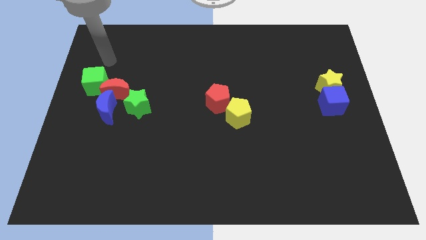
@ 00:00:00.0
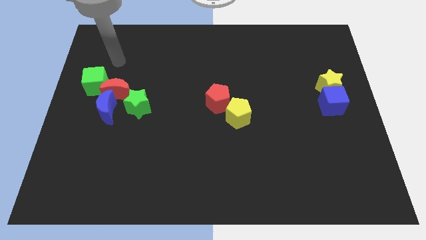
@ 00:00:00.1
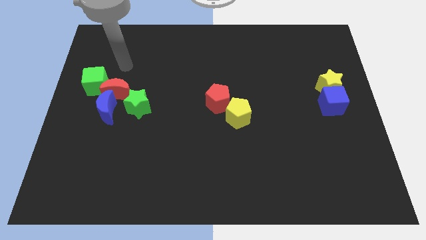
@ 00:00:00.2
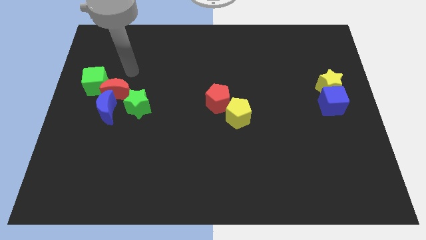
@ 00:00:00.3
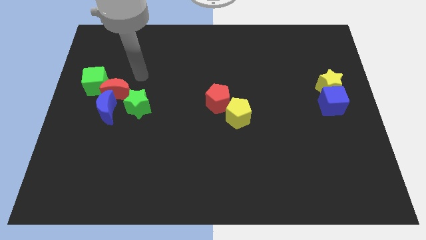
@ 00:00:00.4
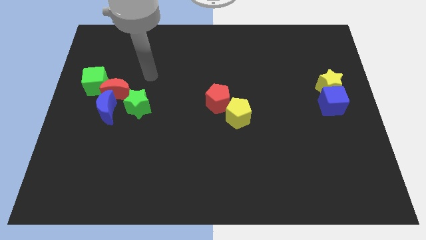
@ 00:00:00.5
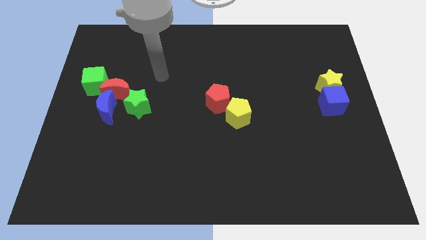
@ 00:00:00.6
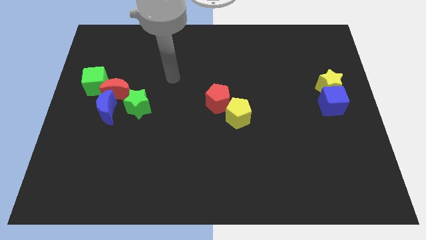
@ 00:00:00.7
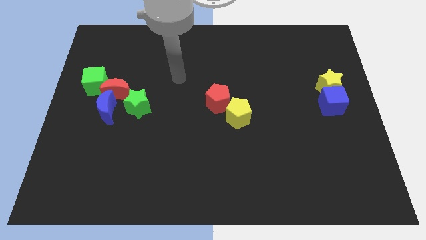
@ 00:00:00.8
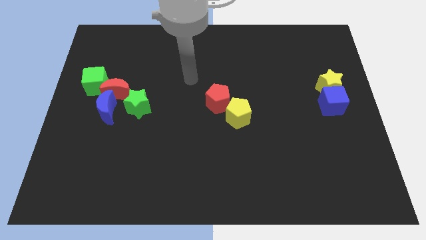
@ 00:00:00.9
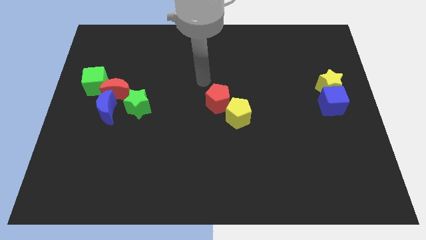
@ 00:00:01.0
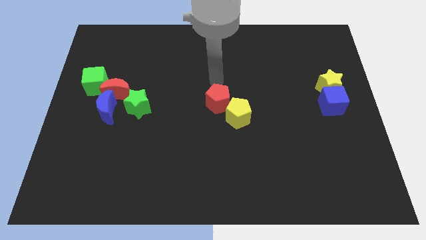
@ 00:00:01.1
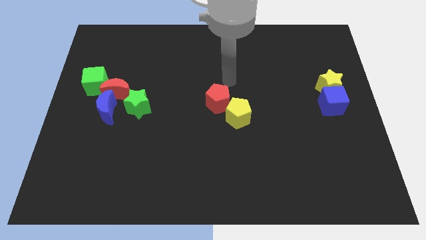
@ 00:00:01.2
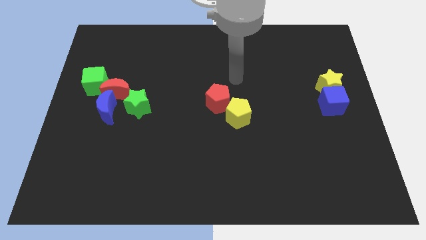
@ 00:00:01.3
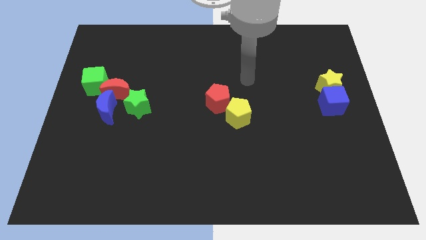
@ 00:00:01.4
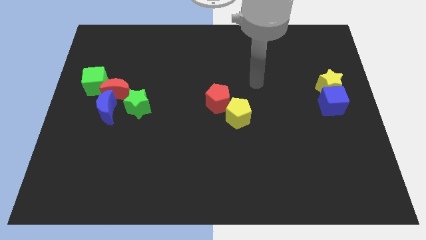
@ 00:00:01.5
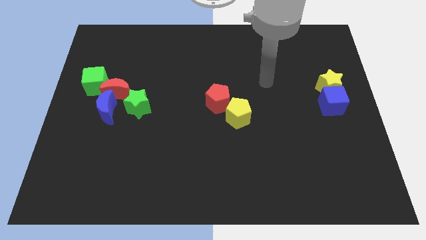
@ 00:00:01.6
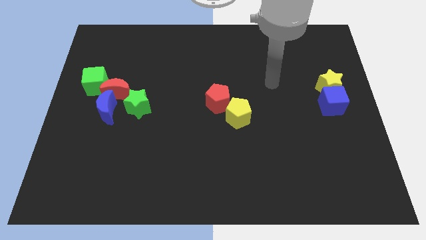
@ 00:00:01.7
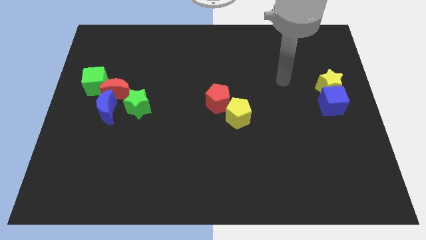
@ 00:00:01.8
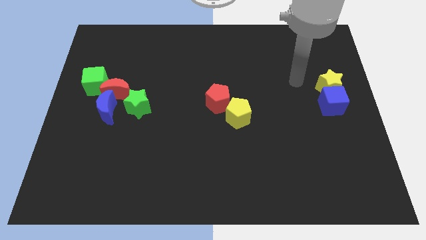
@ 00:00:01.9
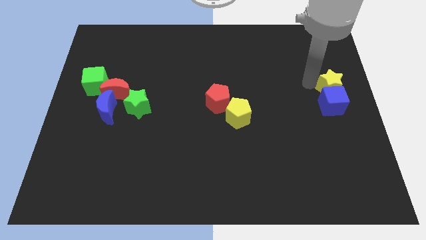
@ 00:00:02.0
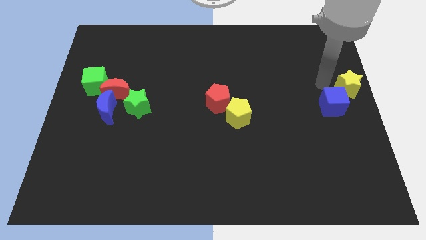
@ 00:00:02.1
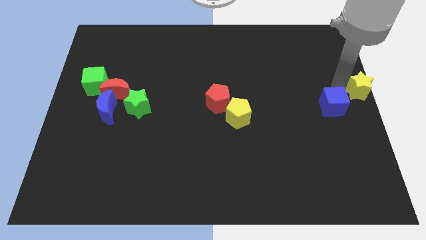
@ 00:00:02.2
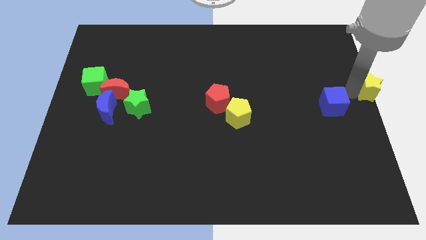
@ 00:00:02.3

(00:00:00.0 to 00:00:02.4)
pull the blue cube apart from the yellow star

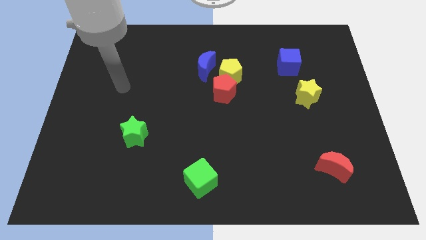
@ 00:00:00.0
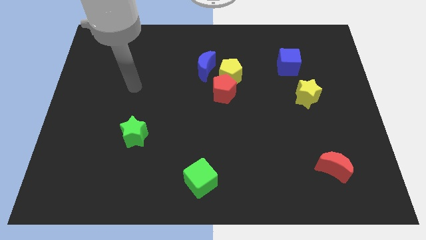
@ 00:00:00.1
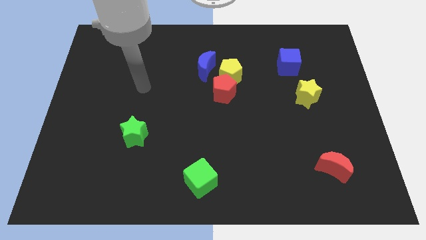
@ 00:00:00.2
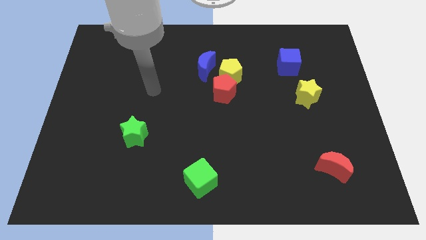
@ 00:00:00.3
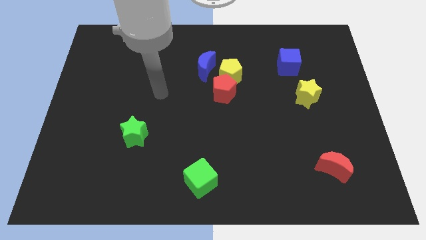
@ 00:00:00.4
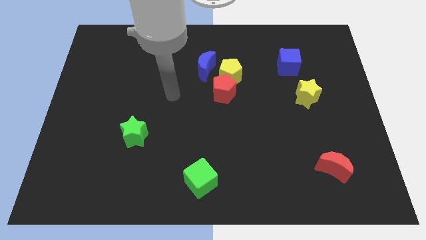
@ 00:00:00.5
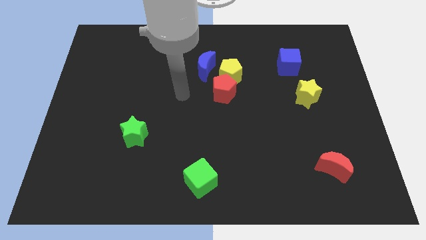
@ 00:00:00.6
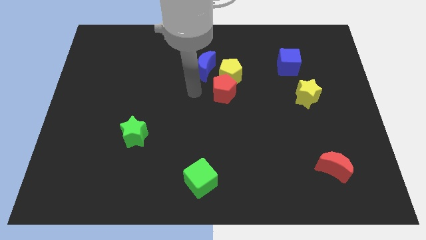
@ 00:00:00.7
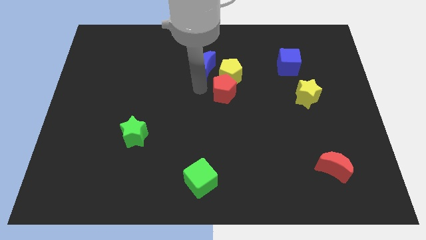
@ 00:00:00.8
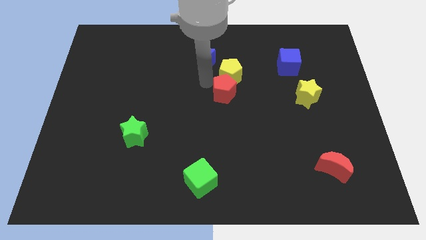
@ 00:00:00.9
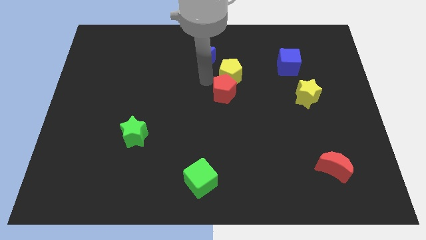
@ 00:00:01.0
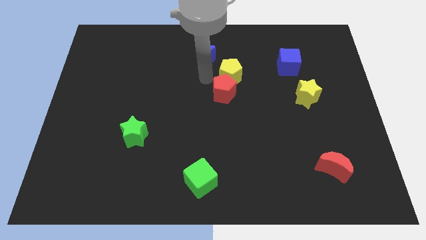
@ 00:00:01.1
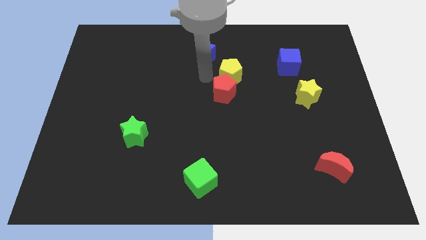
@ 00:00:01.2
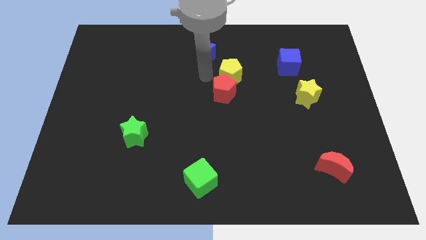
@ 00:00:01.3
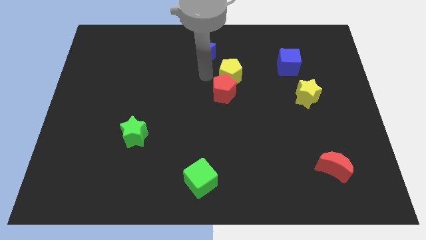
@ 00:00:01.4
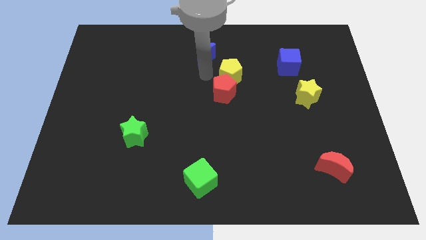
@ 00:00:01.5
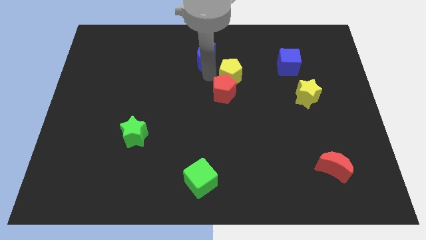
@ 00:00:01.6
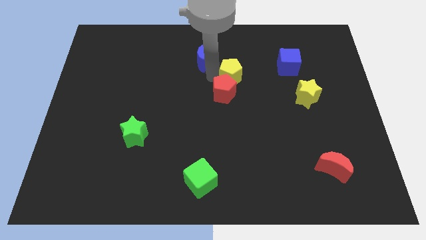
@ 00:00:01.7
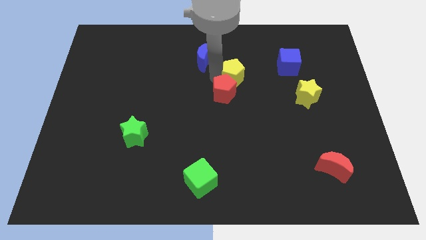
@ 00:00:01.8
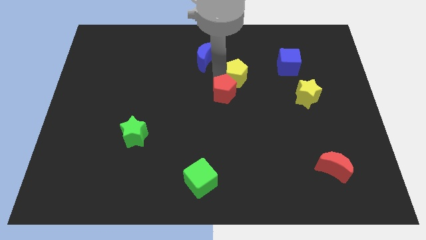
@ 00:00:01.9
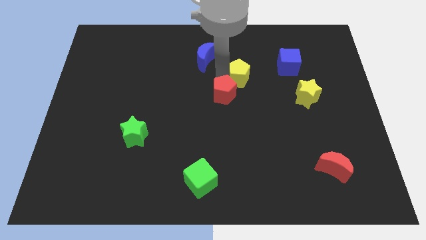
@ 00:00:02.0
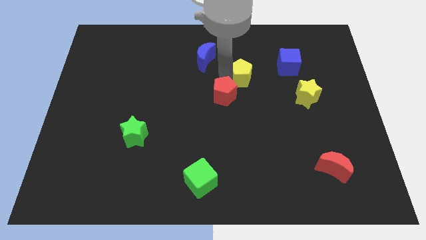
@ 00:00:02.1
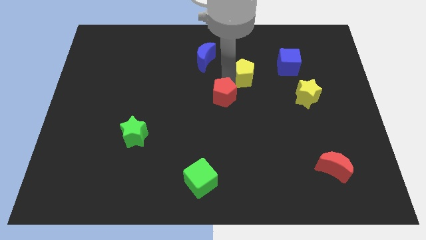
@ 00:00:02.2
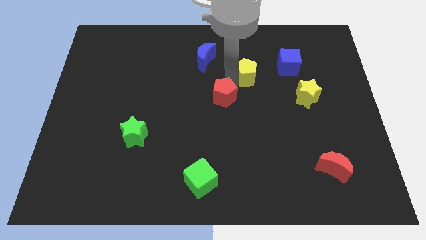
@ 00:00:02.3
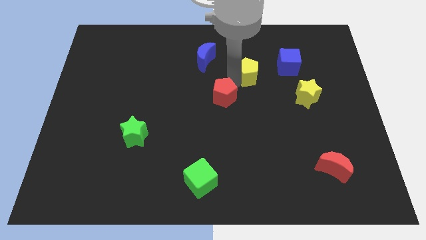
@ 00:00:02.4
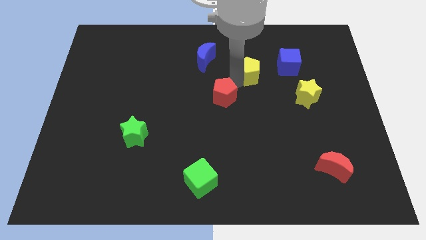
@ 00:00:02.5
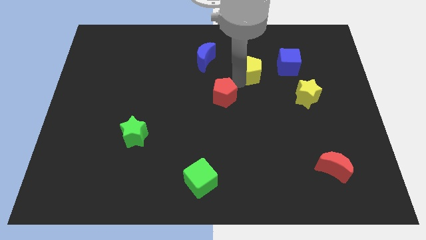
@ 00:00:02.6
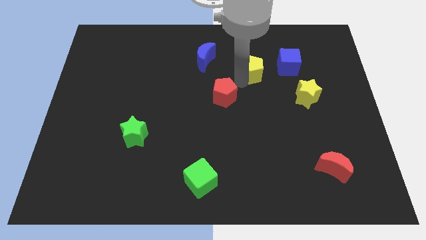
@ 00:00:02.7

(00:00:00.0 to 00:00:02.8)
move the yellow pentagon away from the red pentagon and blue moon

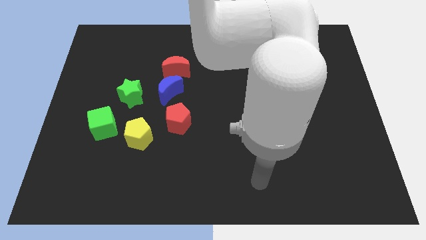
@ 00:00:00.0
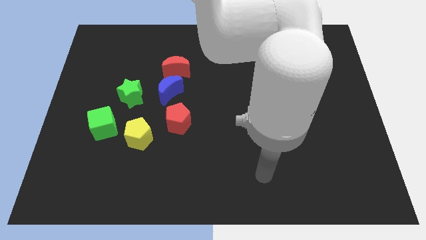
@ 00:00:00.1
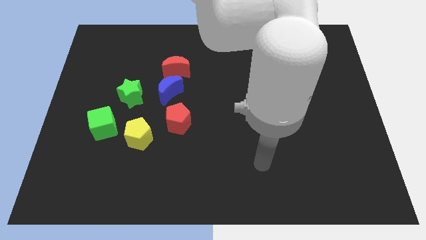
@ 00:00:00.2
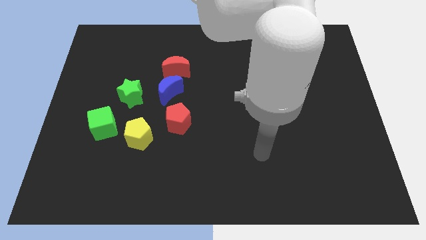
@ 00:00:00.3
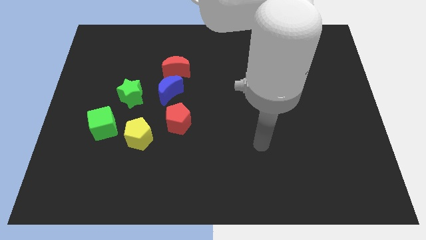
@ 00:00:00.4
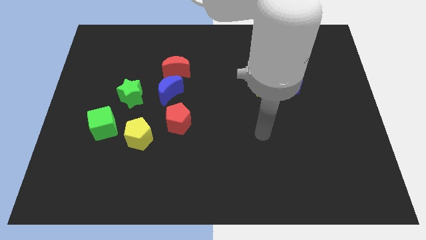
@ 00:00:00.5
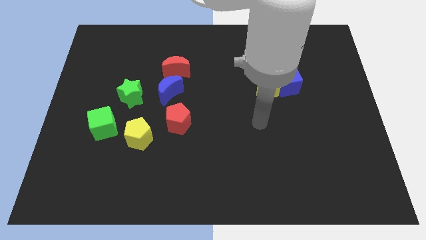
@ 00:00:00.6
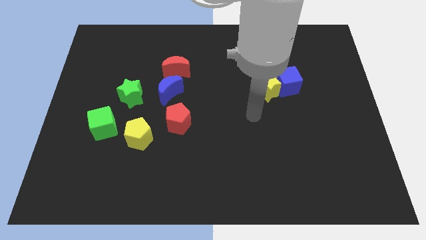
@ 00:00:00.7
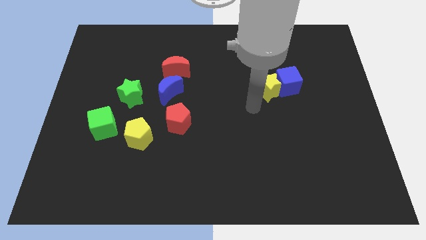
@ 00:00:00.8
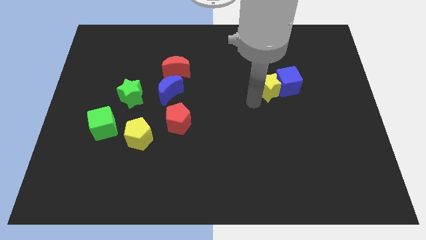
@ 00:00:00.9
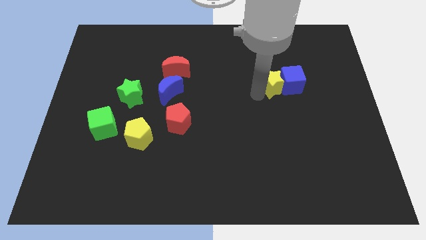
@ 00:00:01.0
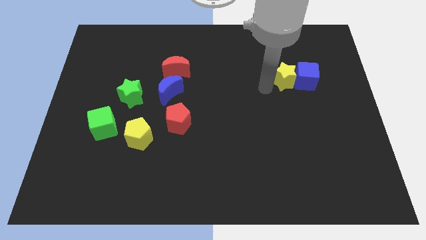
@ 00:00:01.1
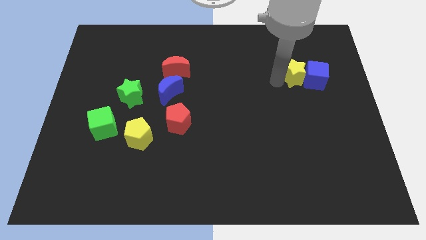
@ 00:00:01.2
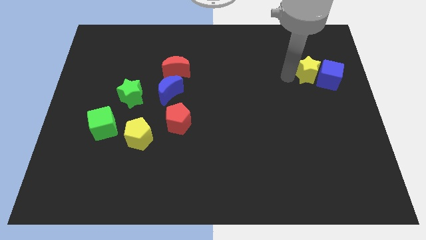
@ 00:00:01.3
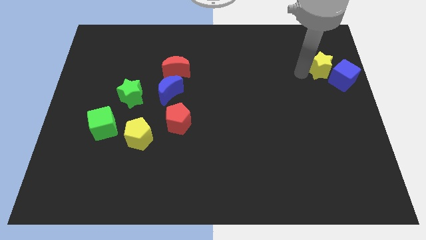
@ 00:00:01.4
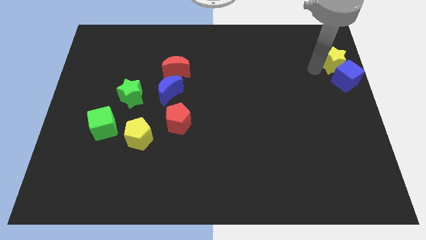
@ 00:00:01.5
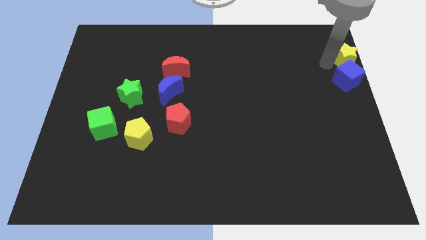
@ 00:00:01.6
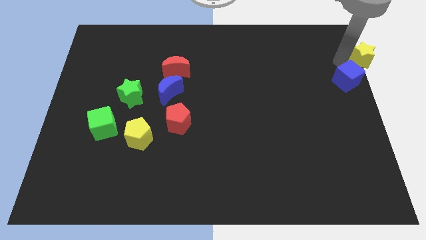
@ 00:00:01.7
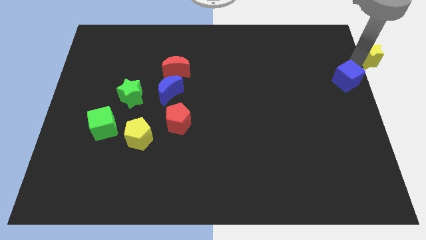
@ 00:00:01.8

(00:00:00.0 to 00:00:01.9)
move the blue cube away from the yellow star

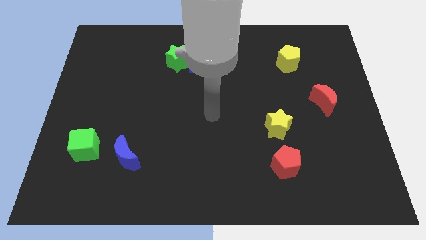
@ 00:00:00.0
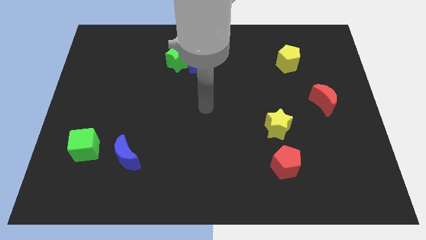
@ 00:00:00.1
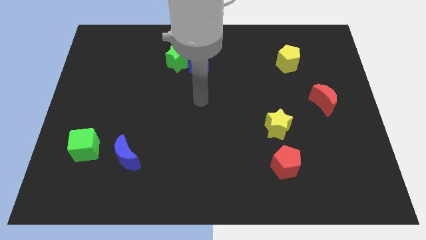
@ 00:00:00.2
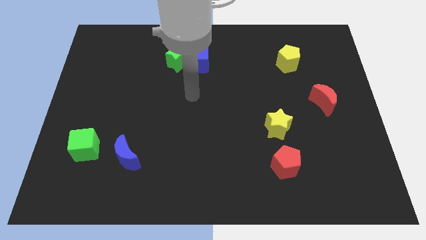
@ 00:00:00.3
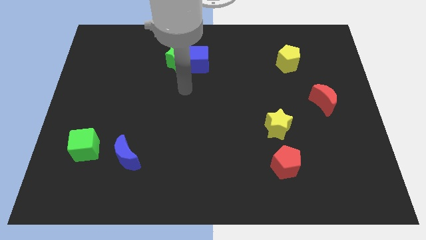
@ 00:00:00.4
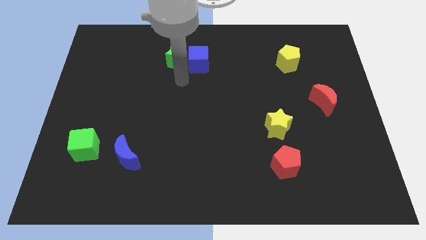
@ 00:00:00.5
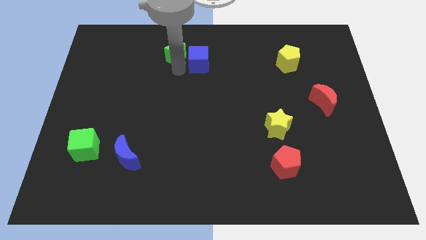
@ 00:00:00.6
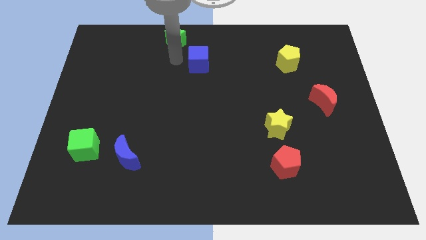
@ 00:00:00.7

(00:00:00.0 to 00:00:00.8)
move the blue cube away from the green star

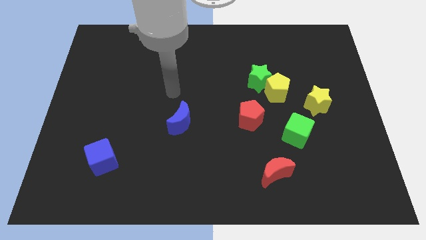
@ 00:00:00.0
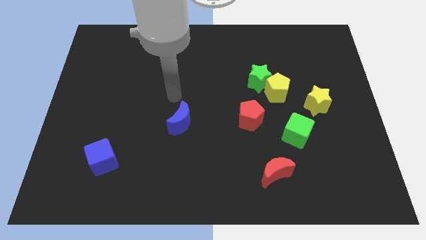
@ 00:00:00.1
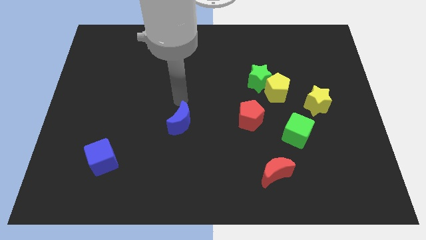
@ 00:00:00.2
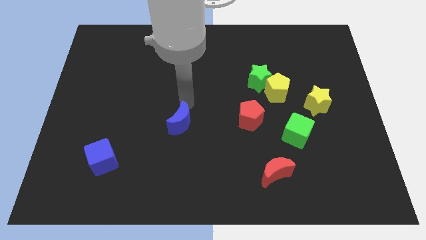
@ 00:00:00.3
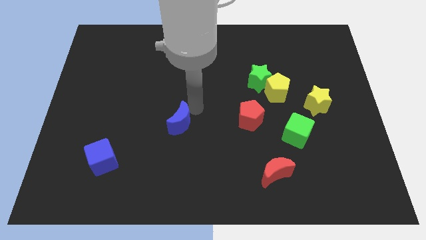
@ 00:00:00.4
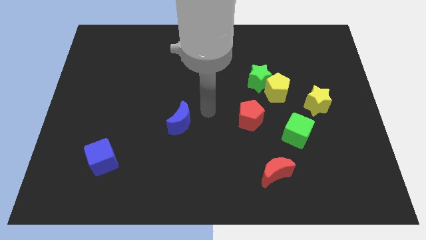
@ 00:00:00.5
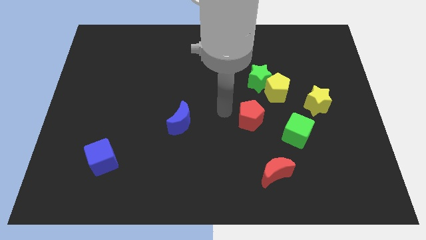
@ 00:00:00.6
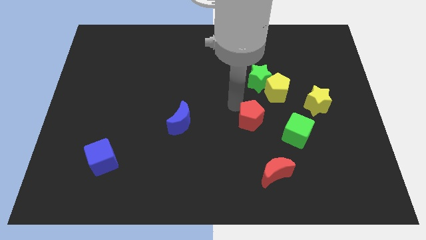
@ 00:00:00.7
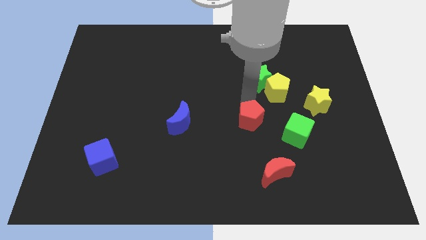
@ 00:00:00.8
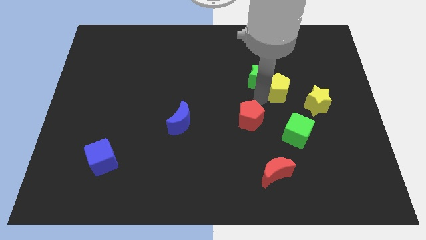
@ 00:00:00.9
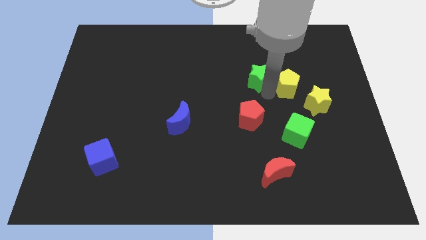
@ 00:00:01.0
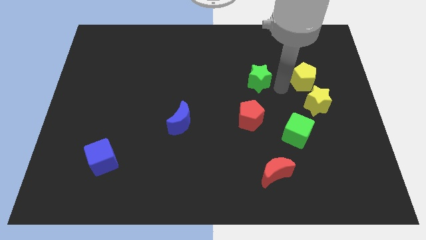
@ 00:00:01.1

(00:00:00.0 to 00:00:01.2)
pull the green star apart from the yellow pentagon
